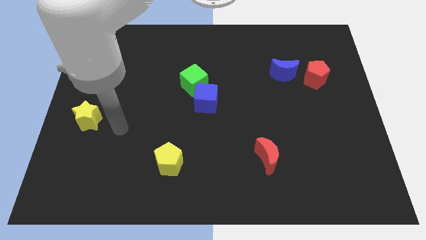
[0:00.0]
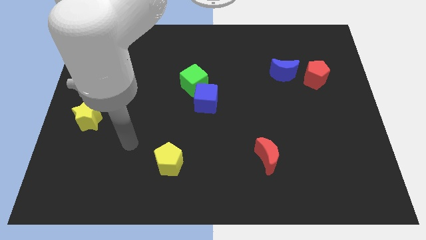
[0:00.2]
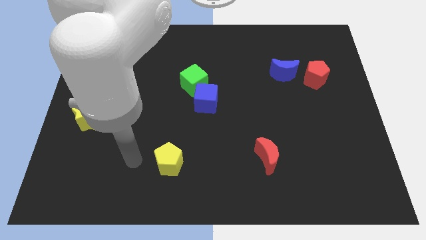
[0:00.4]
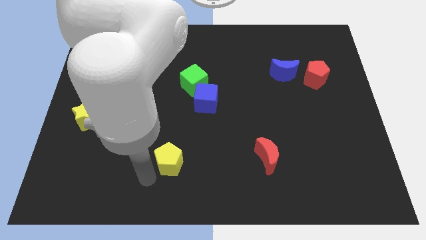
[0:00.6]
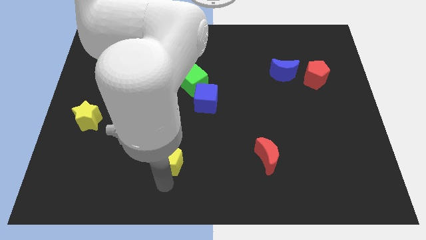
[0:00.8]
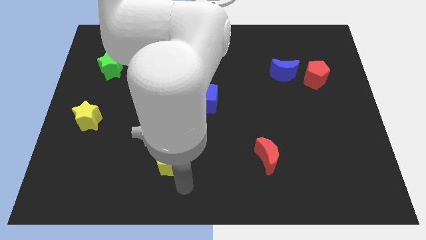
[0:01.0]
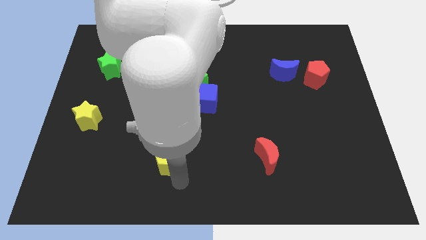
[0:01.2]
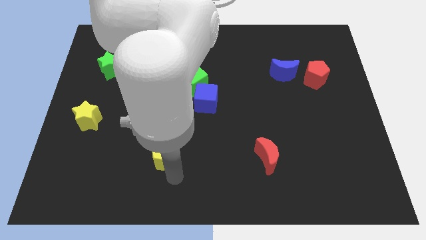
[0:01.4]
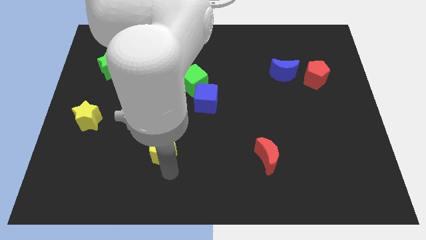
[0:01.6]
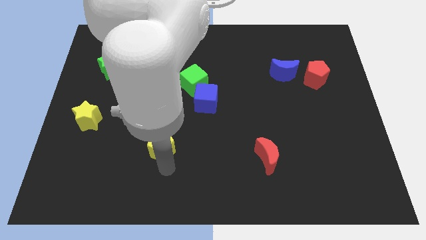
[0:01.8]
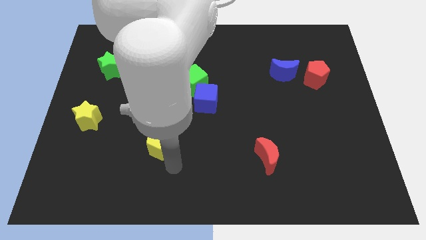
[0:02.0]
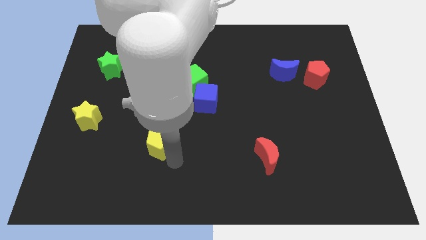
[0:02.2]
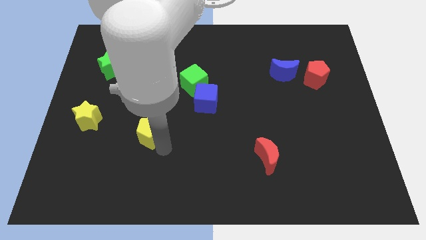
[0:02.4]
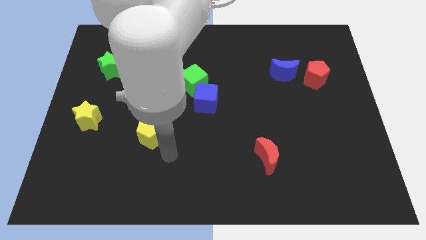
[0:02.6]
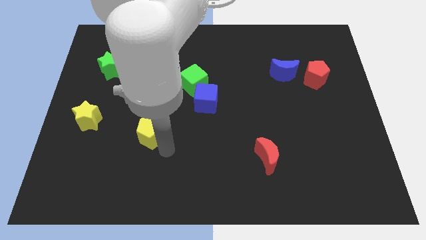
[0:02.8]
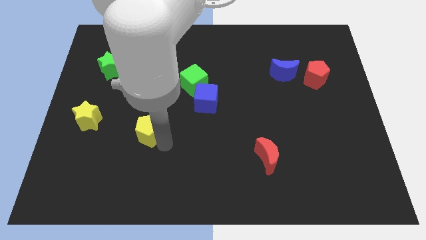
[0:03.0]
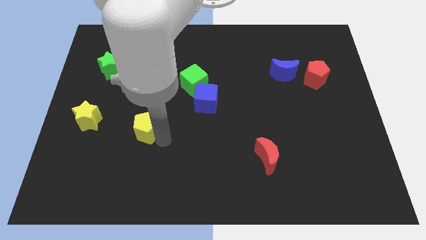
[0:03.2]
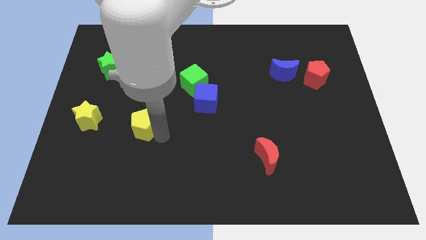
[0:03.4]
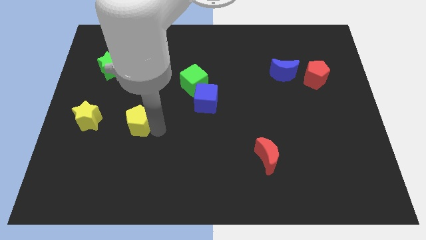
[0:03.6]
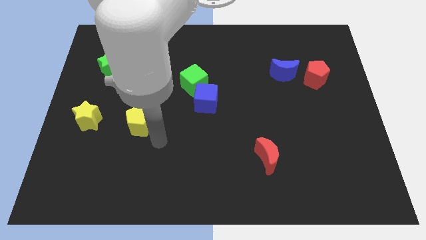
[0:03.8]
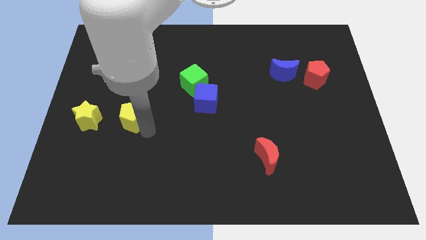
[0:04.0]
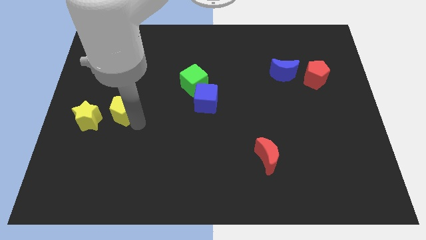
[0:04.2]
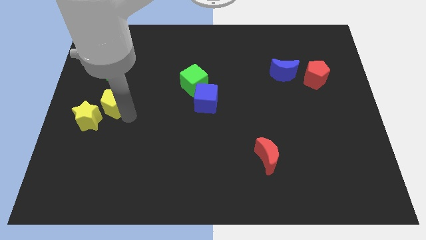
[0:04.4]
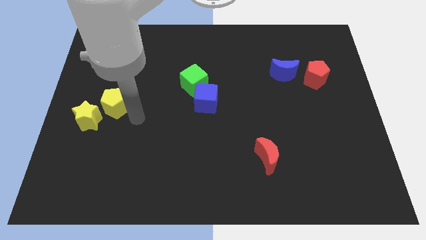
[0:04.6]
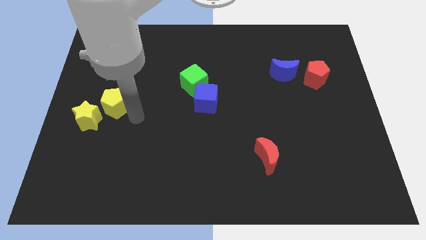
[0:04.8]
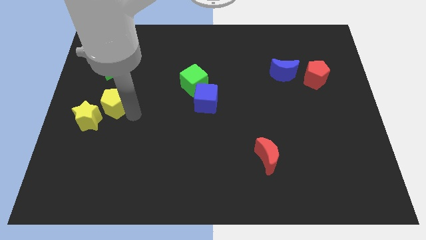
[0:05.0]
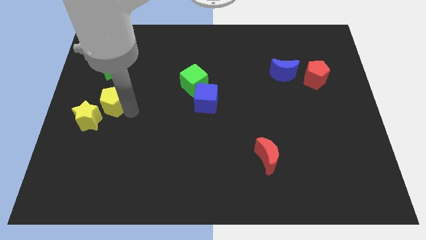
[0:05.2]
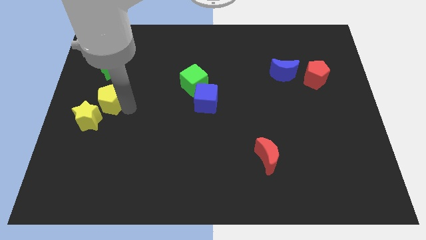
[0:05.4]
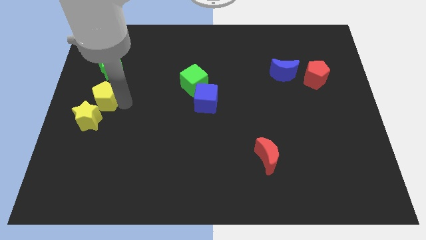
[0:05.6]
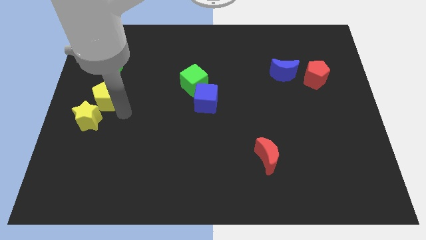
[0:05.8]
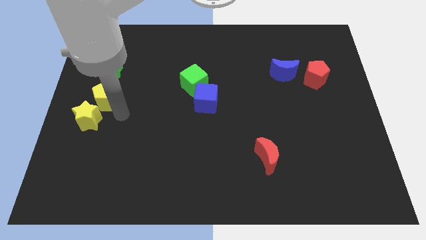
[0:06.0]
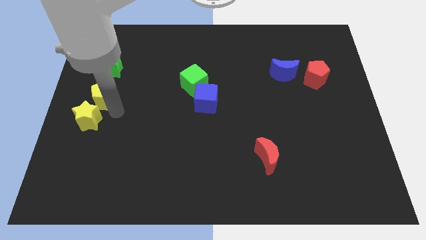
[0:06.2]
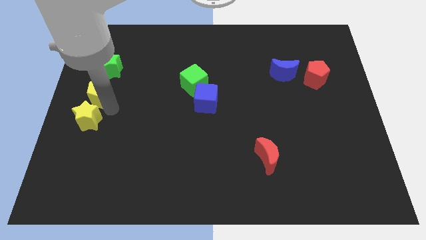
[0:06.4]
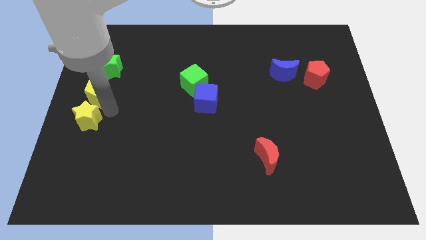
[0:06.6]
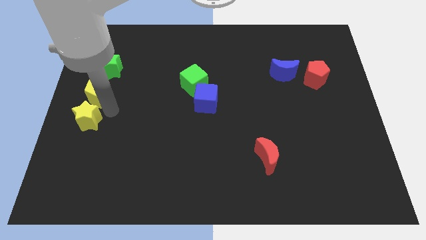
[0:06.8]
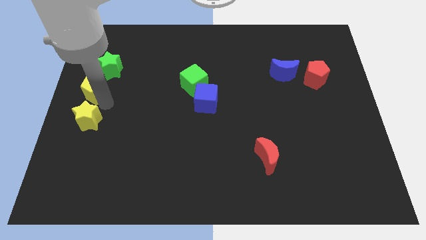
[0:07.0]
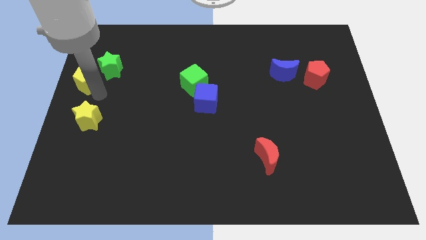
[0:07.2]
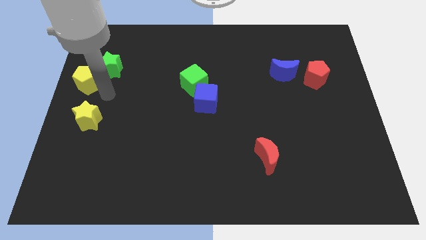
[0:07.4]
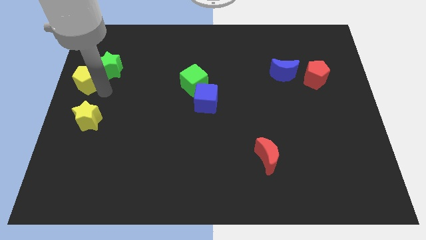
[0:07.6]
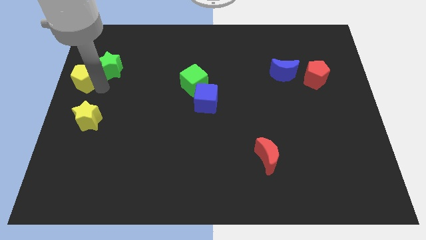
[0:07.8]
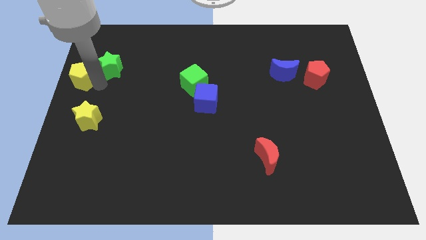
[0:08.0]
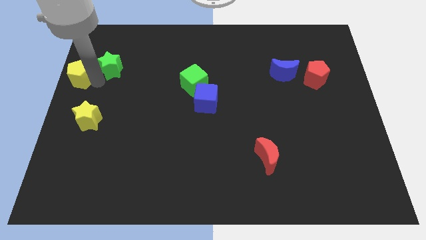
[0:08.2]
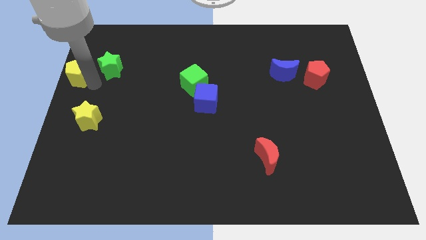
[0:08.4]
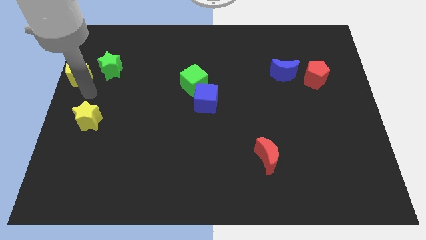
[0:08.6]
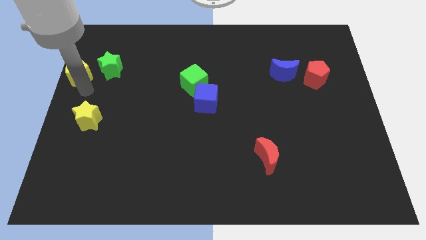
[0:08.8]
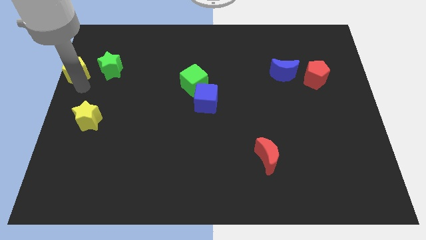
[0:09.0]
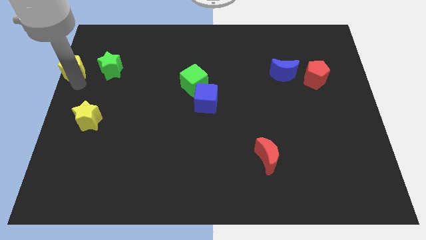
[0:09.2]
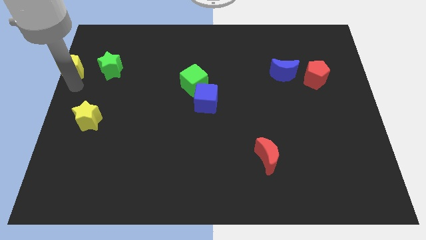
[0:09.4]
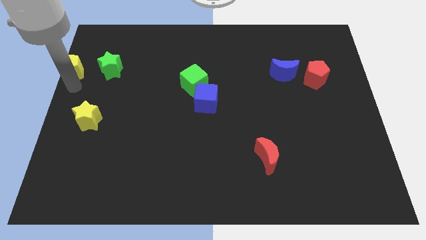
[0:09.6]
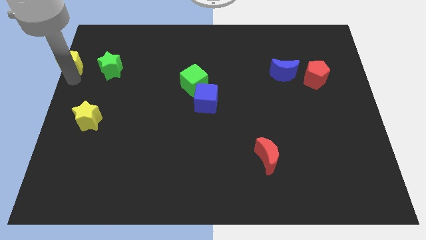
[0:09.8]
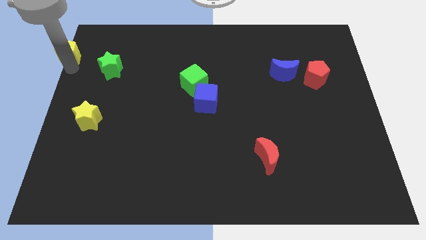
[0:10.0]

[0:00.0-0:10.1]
slide the yellow pentagon to the top left of the board
